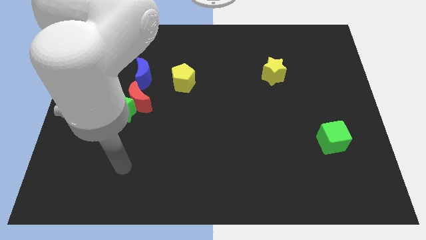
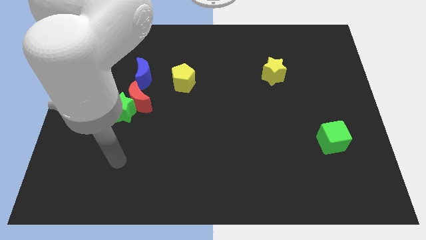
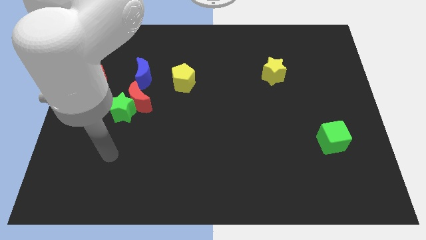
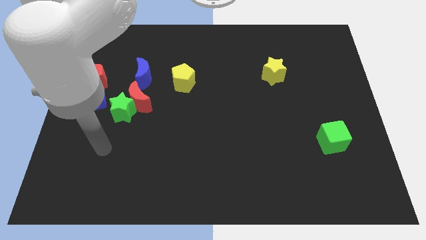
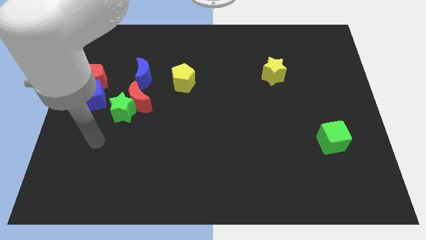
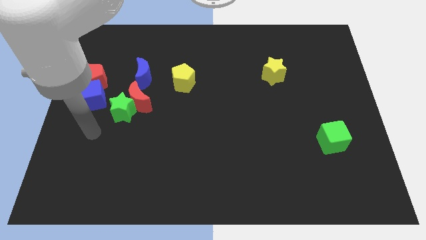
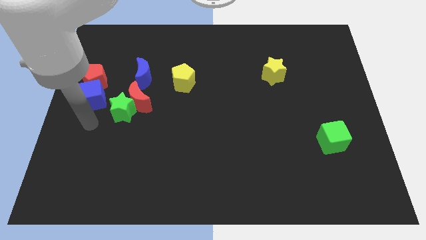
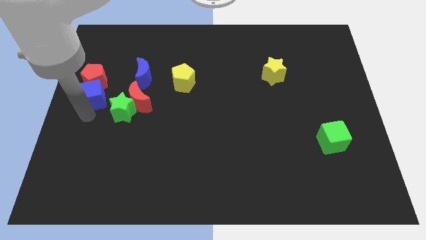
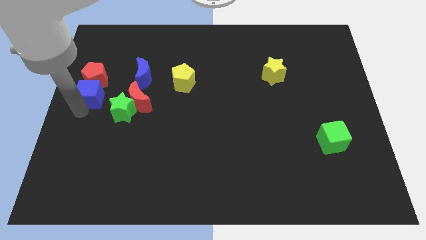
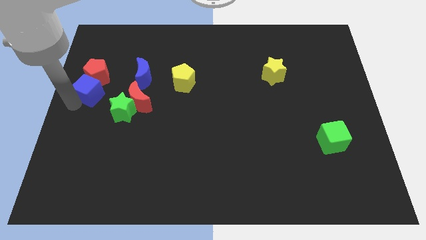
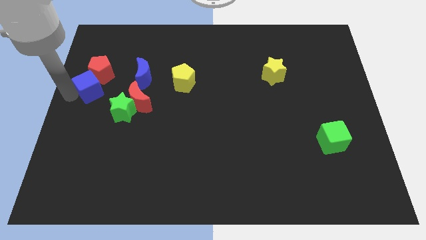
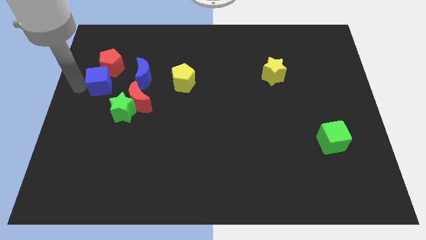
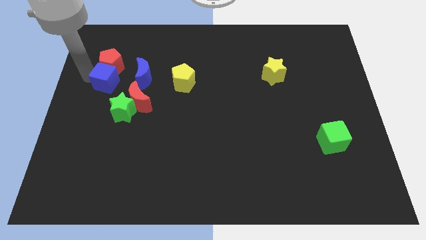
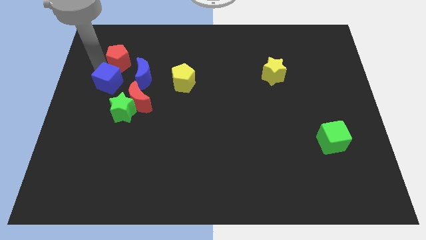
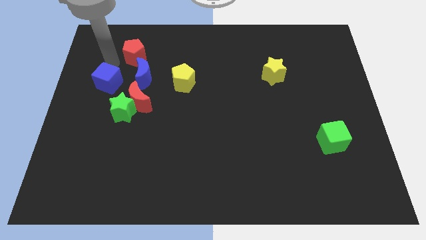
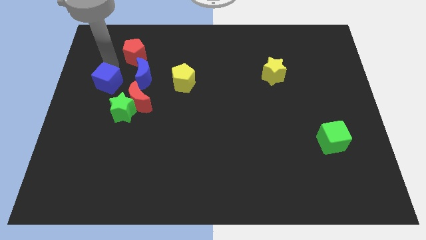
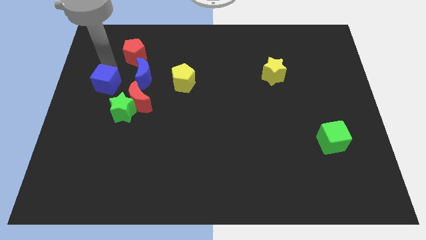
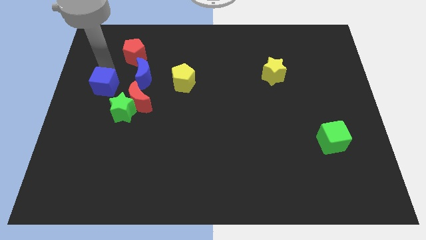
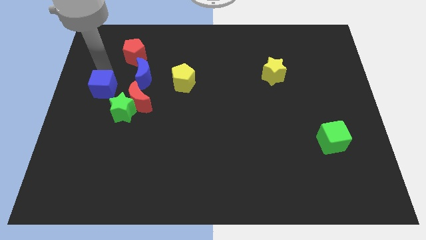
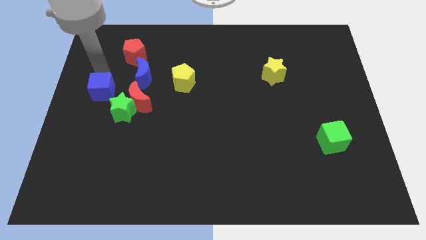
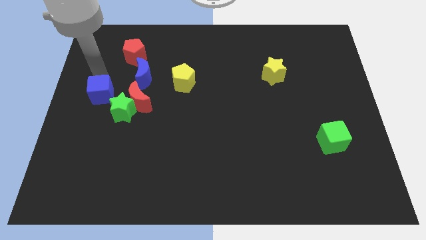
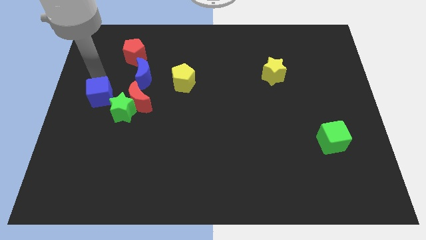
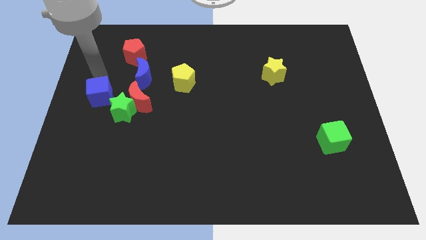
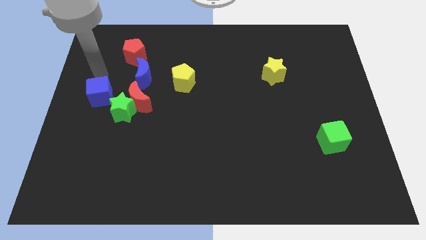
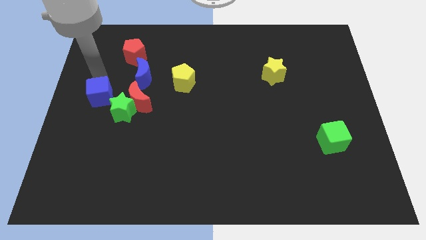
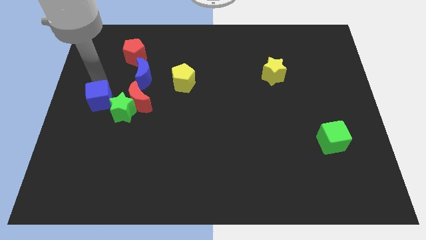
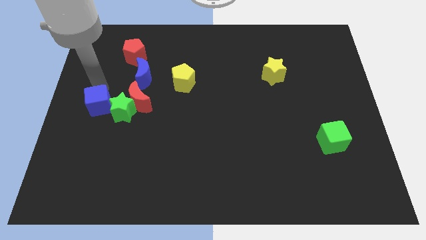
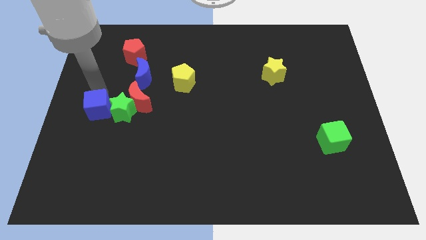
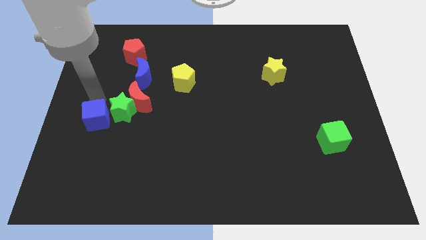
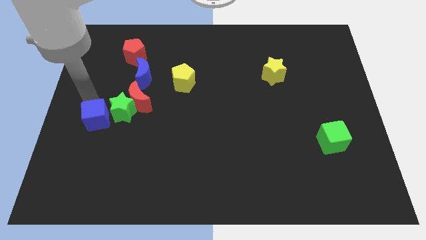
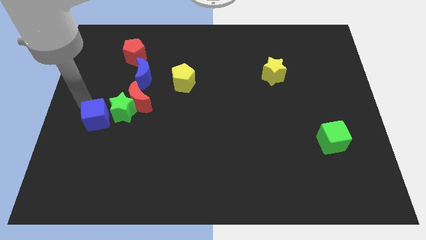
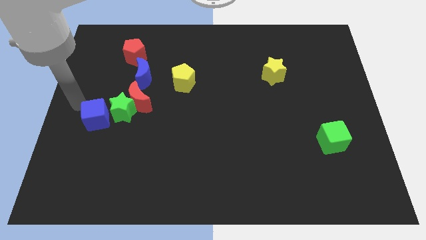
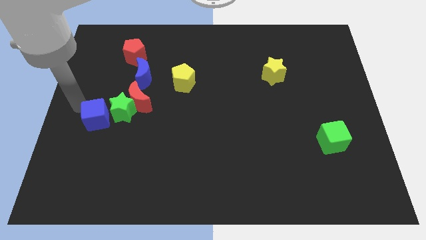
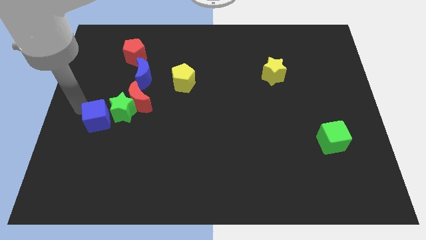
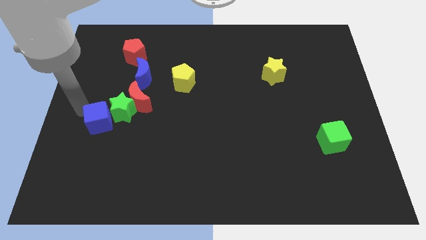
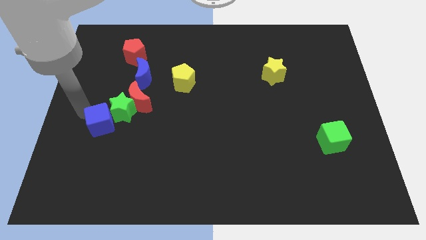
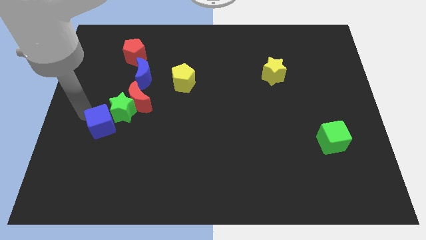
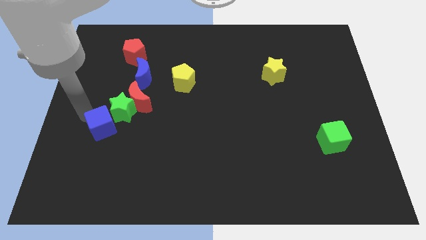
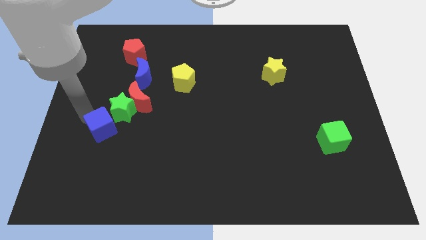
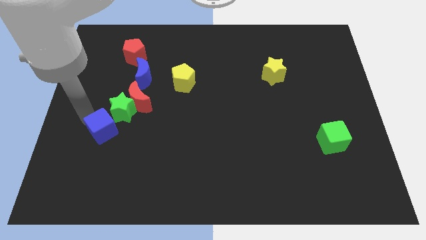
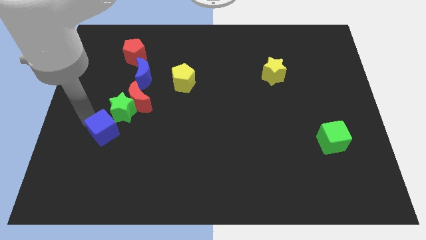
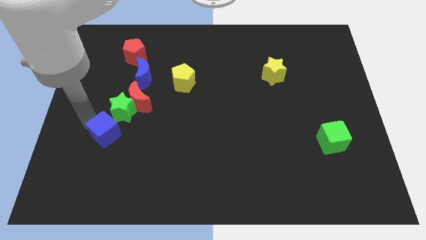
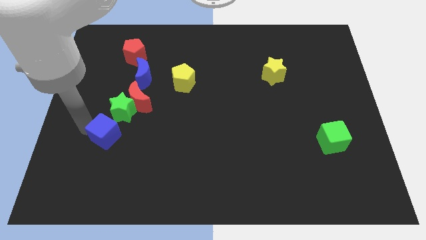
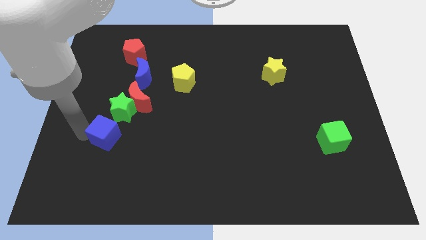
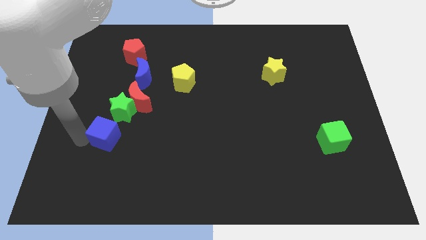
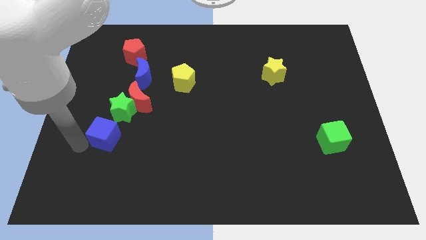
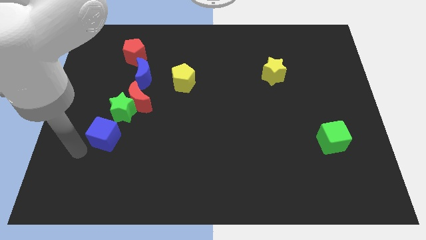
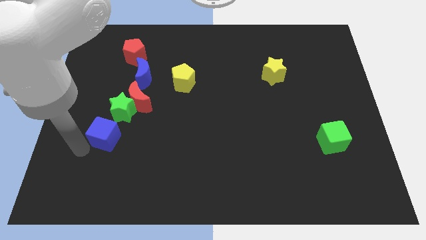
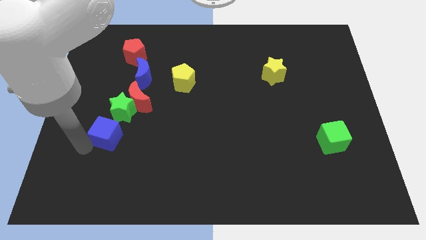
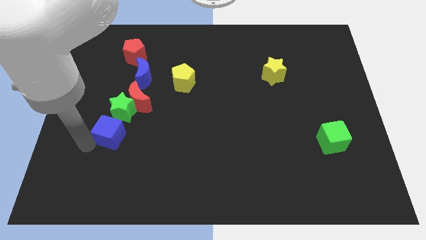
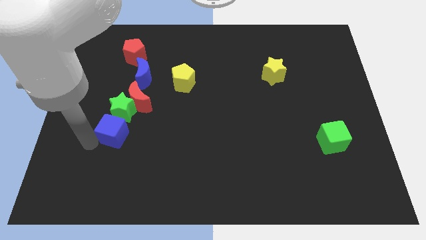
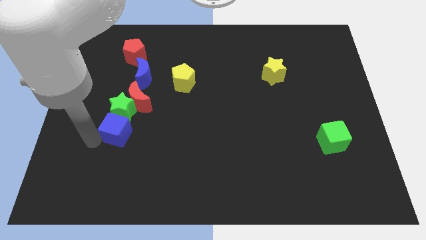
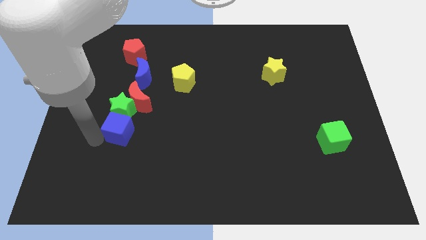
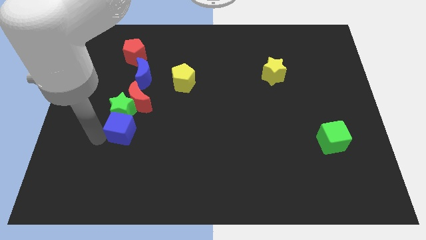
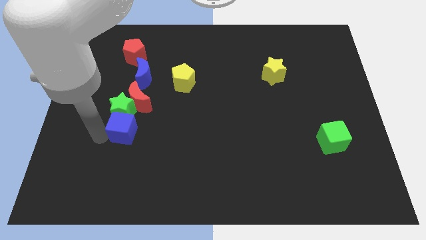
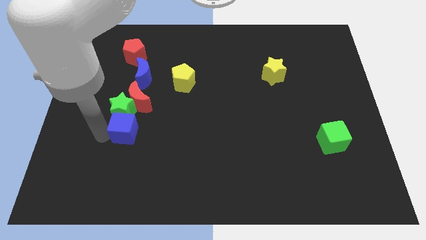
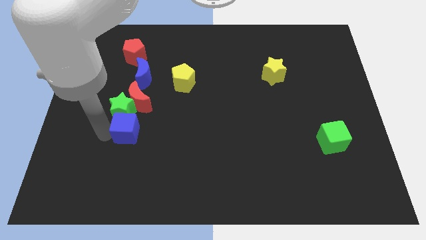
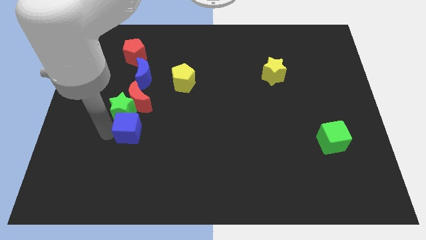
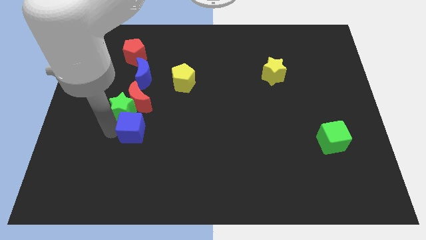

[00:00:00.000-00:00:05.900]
move the blue cube a bit right

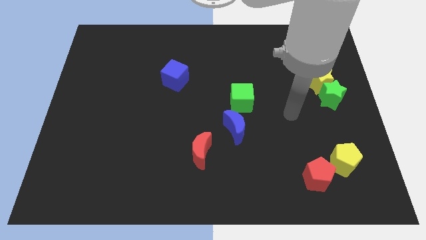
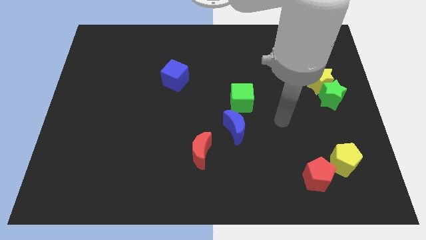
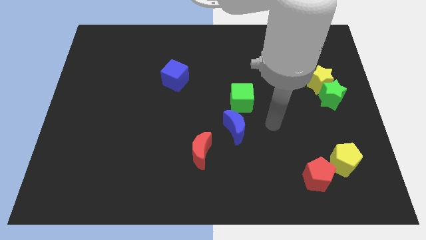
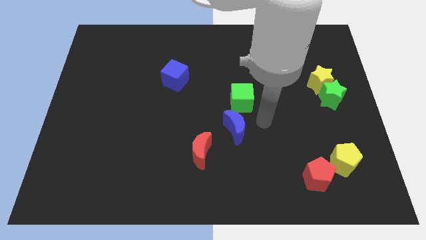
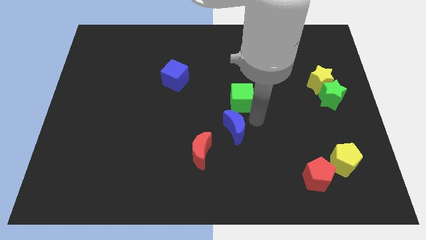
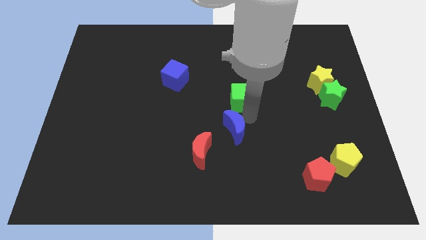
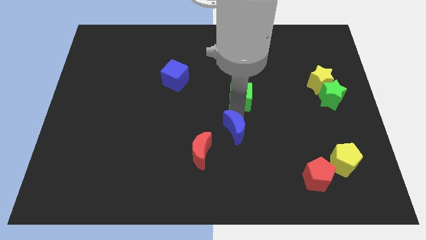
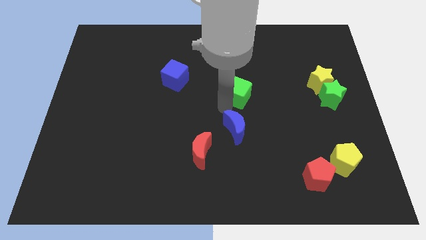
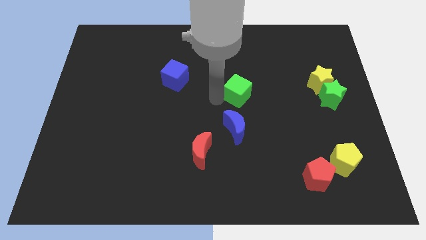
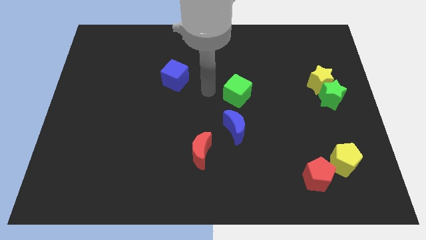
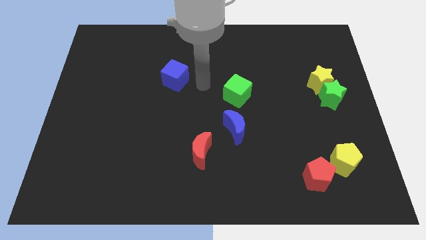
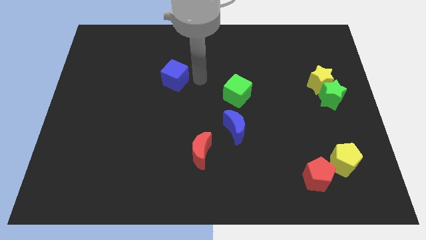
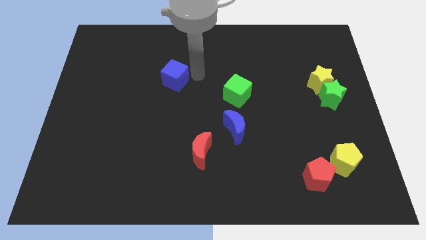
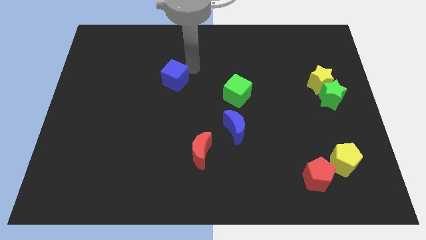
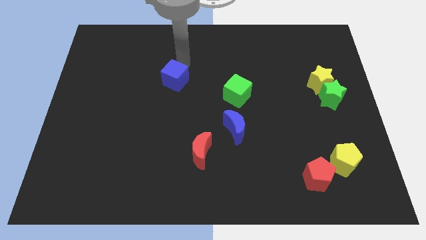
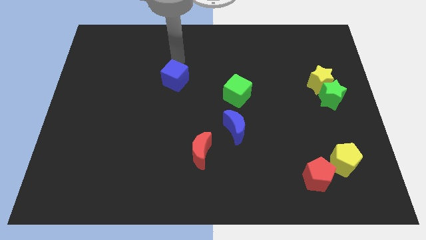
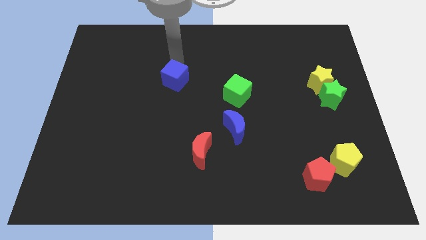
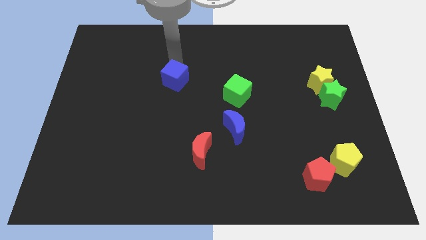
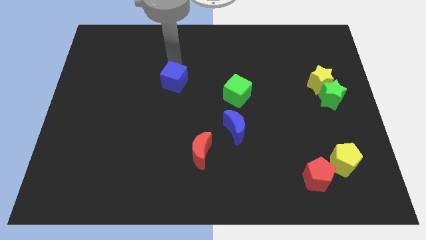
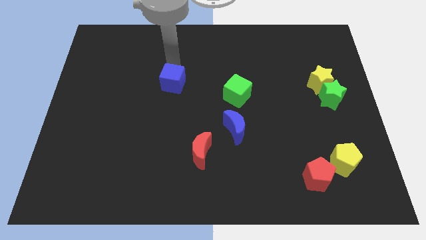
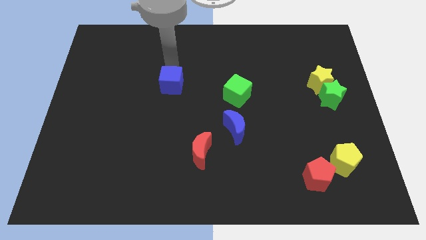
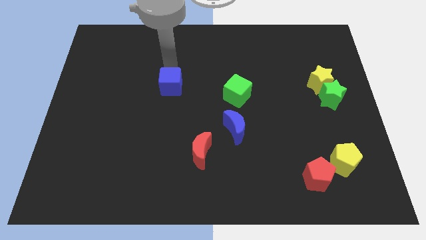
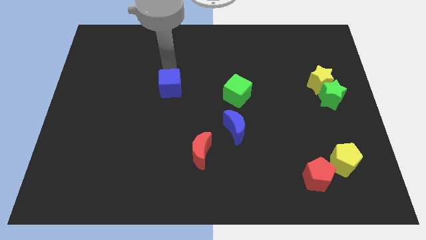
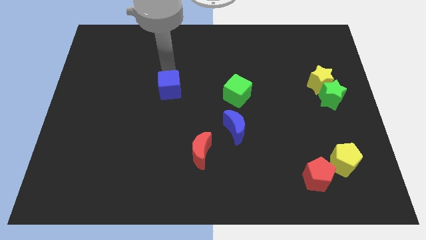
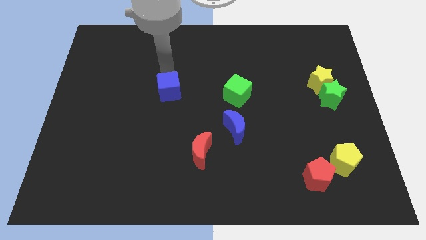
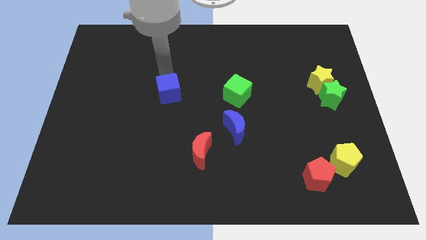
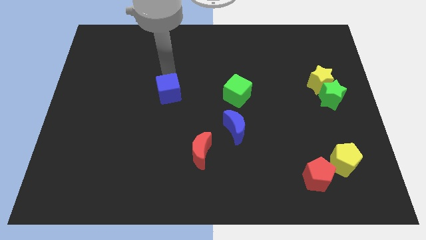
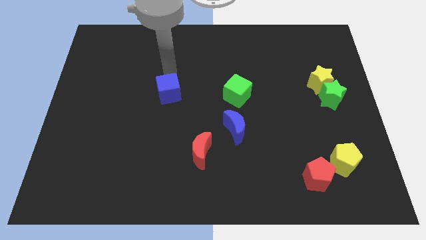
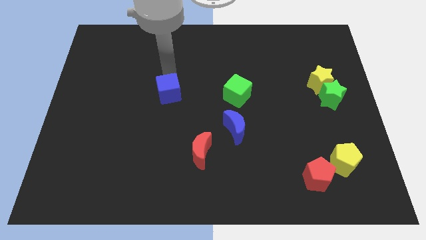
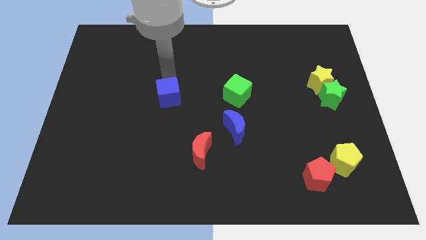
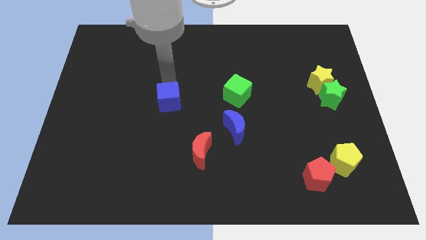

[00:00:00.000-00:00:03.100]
push the blue cube down a little
